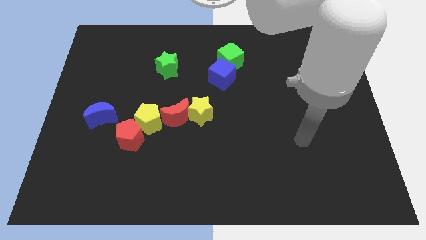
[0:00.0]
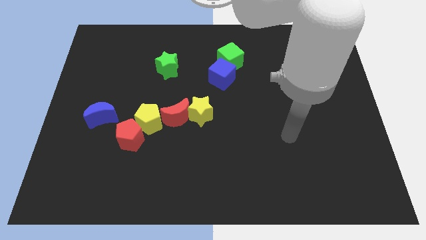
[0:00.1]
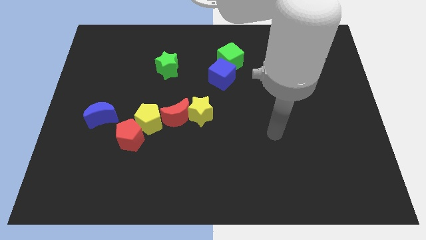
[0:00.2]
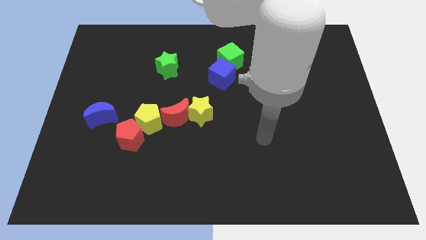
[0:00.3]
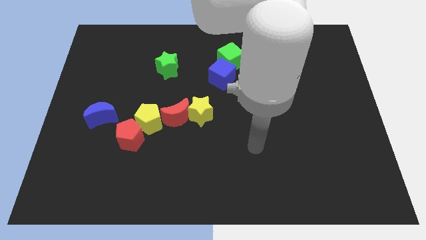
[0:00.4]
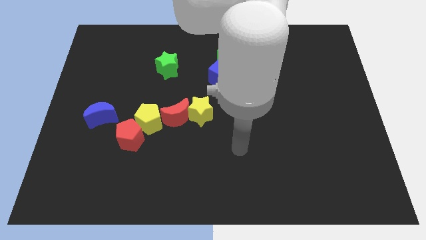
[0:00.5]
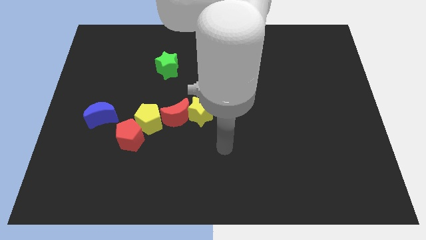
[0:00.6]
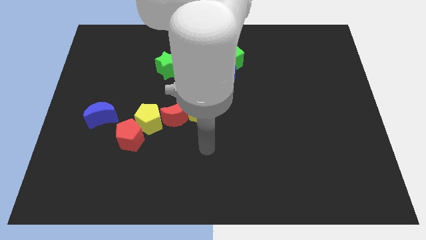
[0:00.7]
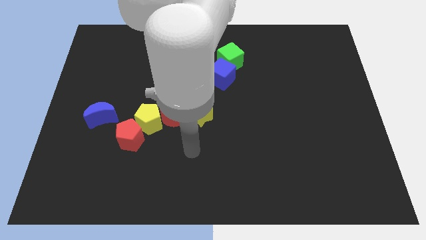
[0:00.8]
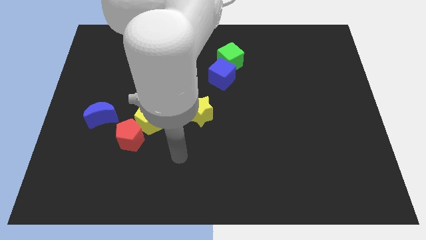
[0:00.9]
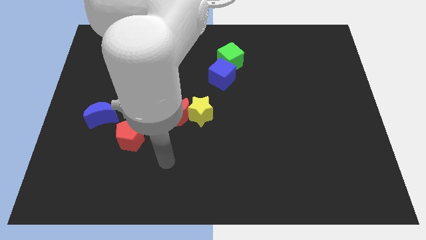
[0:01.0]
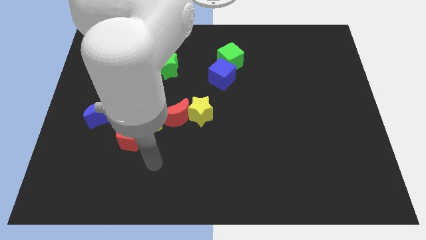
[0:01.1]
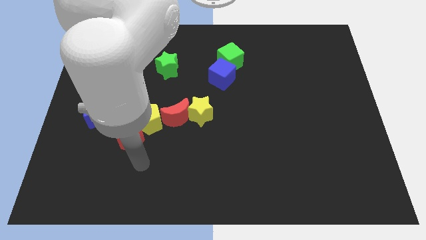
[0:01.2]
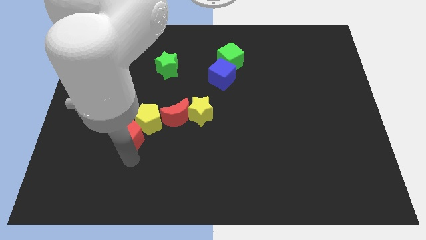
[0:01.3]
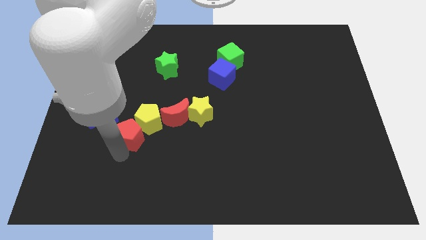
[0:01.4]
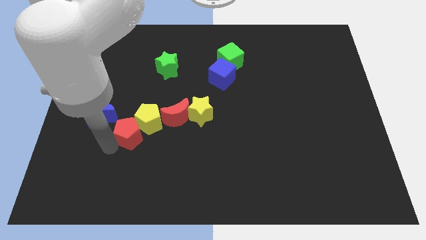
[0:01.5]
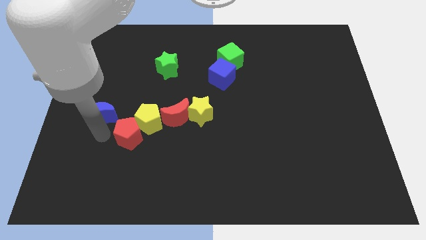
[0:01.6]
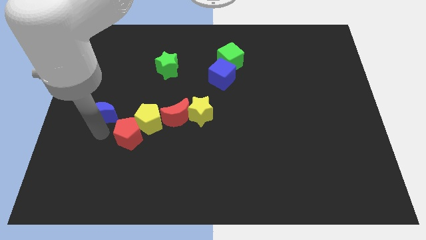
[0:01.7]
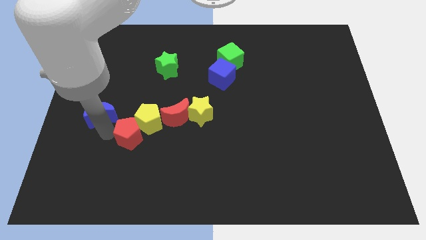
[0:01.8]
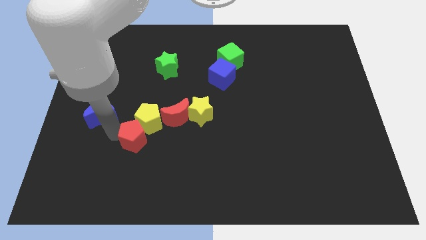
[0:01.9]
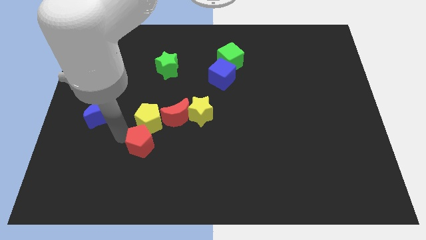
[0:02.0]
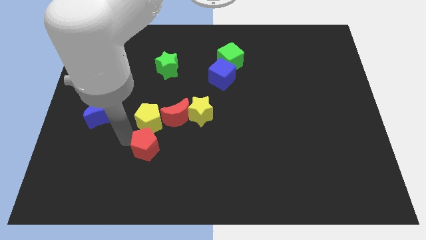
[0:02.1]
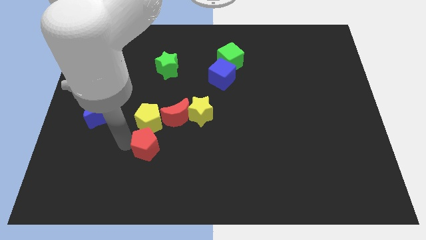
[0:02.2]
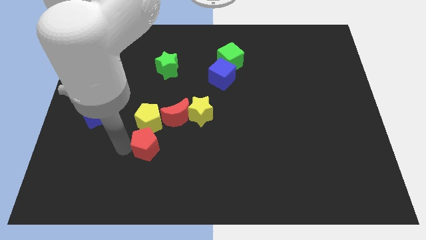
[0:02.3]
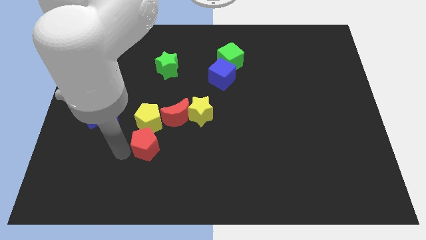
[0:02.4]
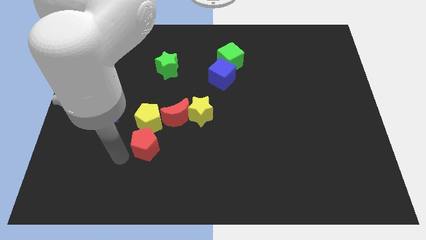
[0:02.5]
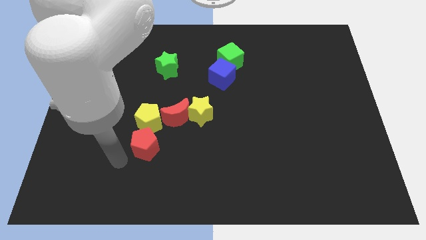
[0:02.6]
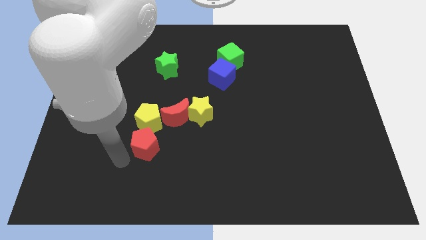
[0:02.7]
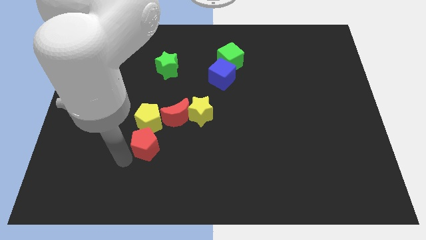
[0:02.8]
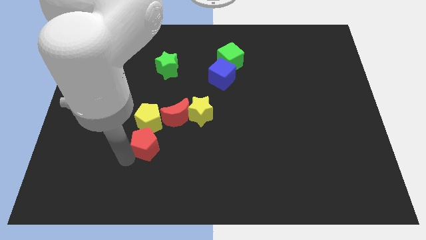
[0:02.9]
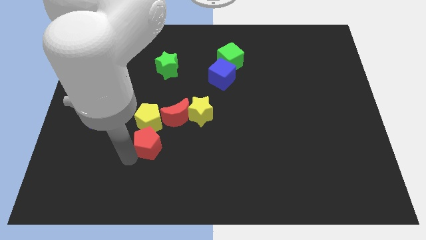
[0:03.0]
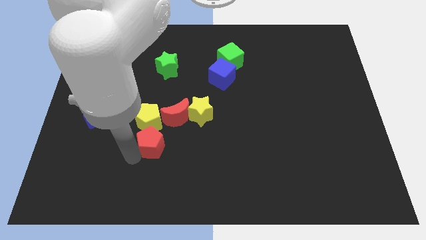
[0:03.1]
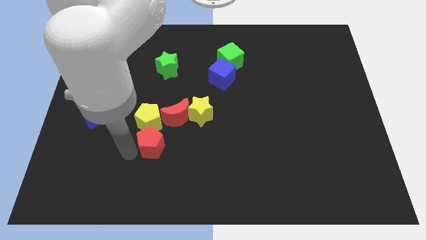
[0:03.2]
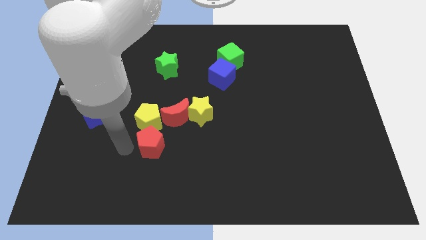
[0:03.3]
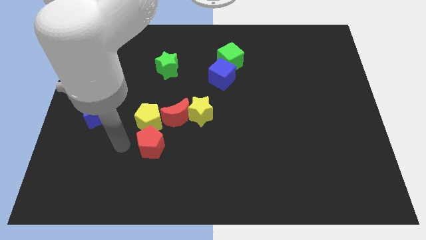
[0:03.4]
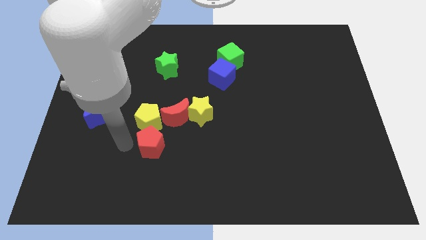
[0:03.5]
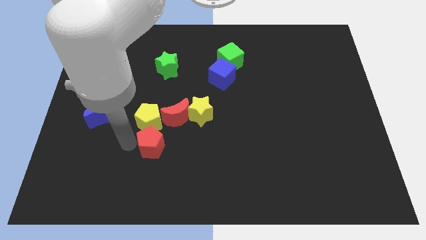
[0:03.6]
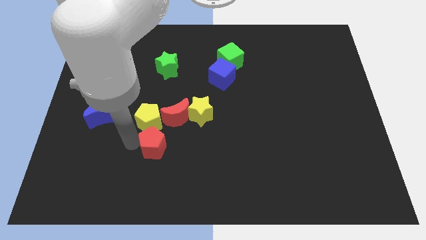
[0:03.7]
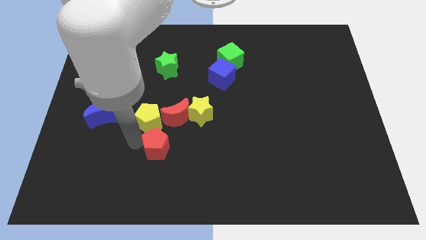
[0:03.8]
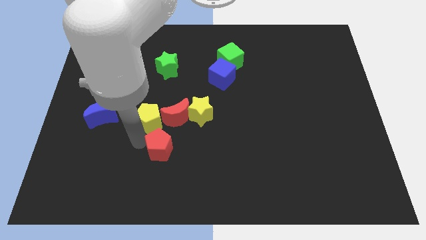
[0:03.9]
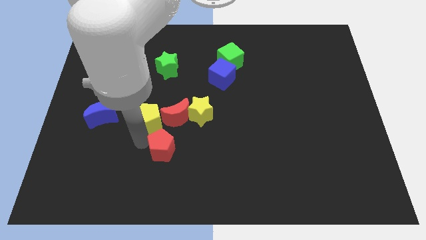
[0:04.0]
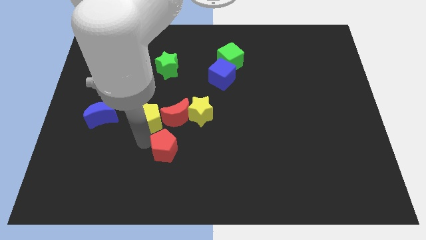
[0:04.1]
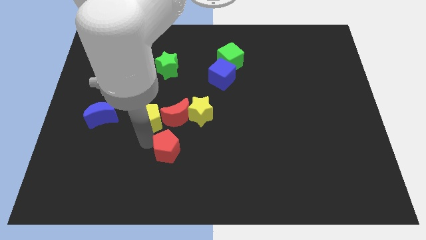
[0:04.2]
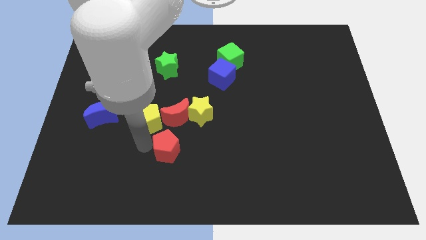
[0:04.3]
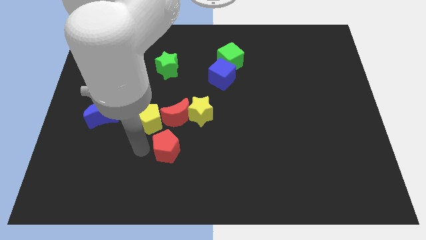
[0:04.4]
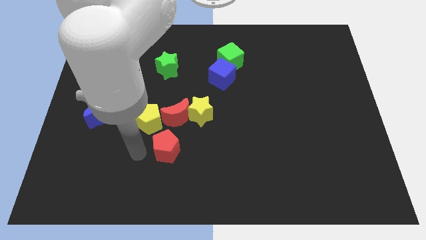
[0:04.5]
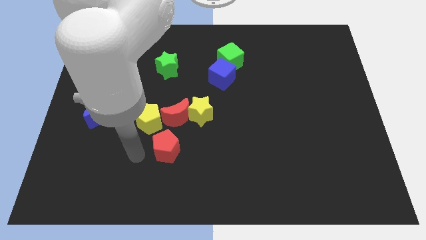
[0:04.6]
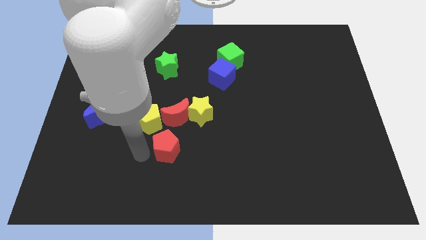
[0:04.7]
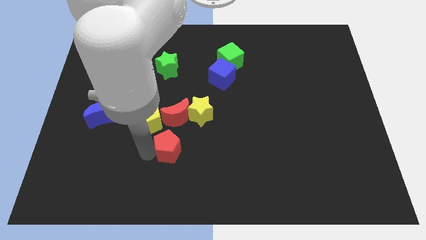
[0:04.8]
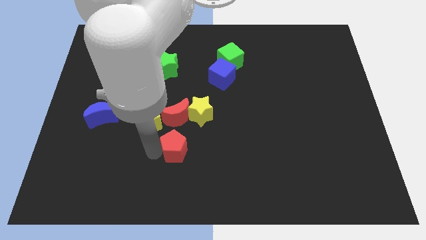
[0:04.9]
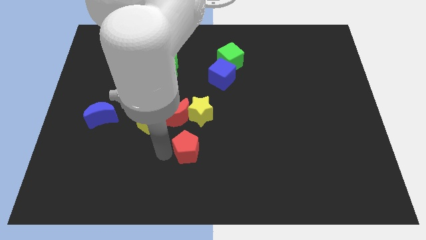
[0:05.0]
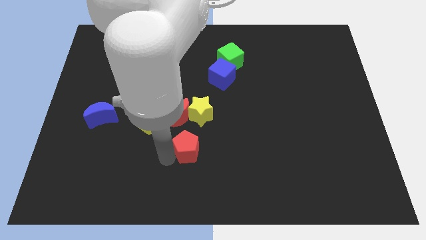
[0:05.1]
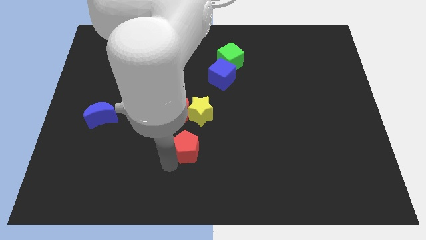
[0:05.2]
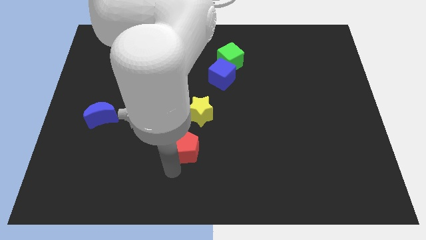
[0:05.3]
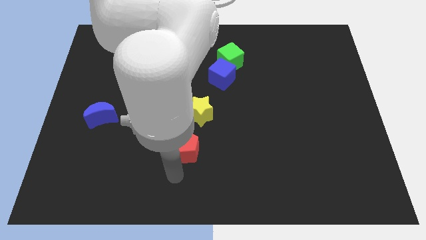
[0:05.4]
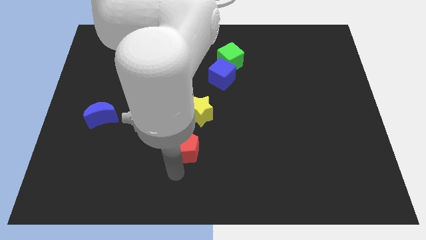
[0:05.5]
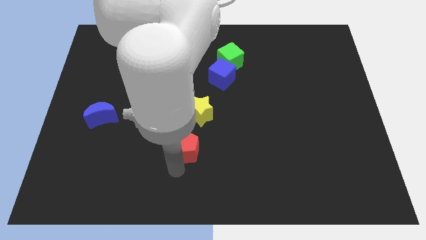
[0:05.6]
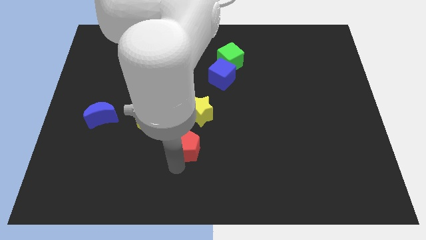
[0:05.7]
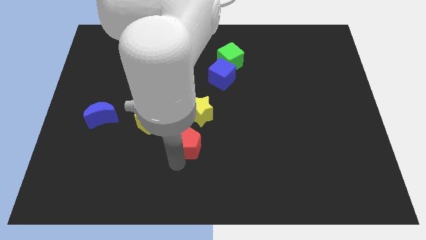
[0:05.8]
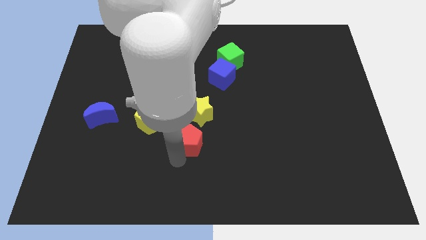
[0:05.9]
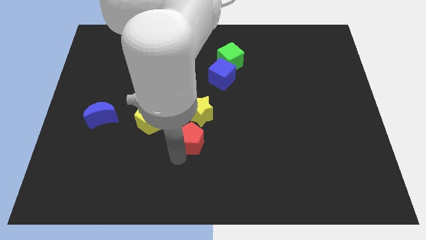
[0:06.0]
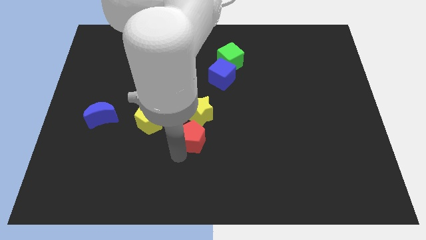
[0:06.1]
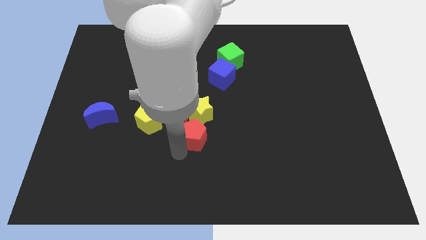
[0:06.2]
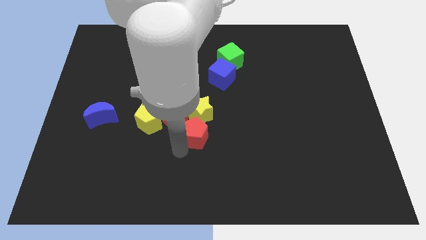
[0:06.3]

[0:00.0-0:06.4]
push the red pentagon close to the yellow star
